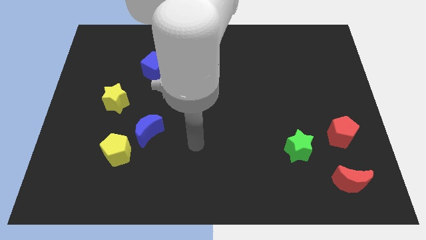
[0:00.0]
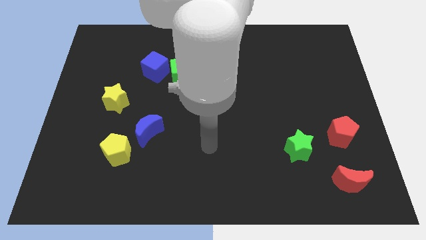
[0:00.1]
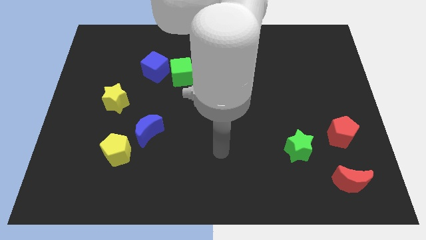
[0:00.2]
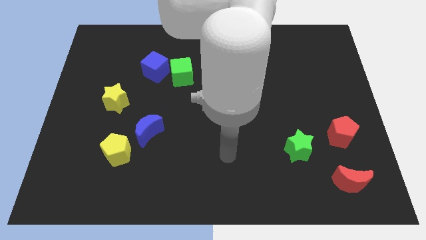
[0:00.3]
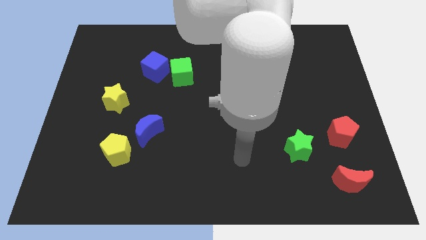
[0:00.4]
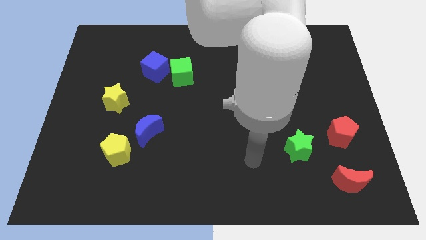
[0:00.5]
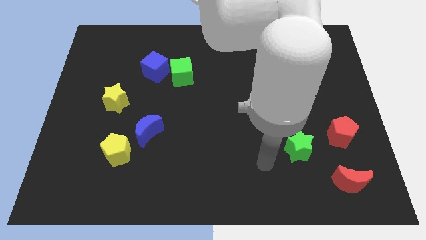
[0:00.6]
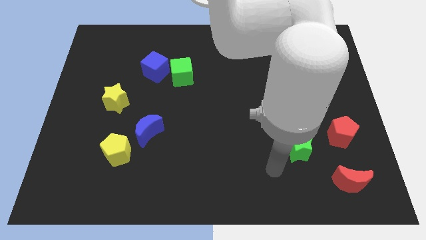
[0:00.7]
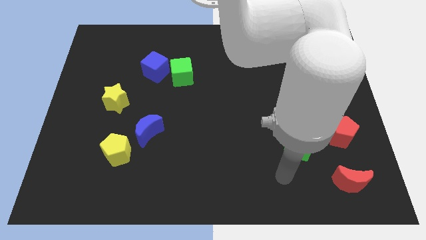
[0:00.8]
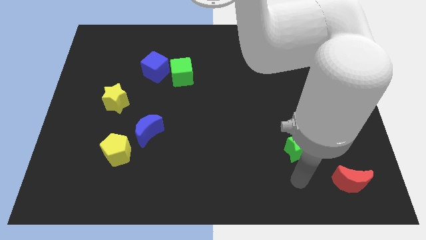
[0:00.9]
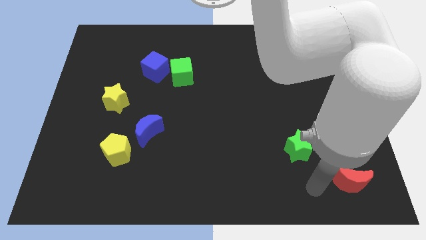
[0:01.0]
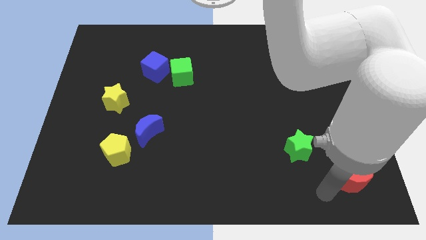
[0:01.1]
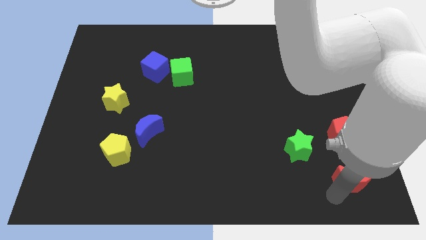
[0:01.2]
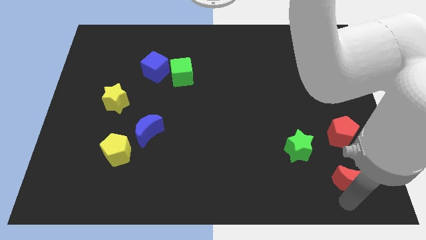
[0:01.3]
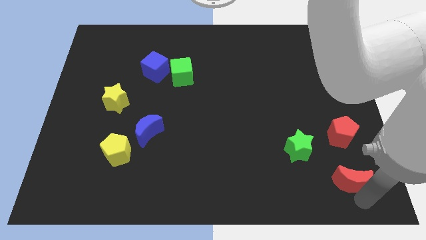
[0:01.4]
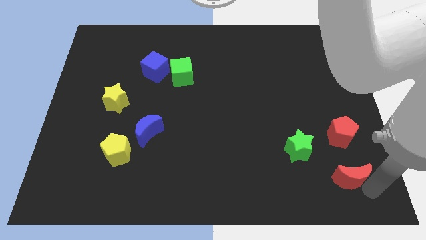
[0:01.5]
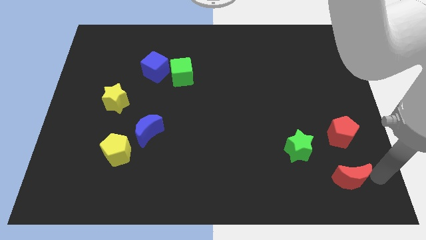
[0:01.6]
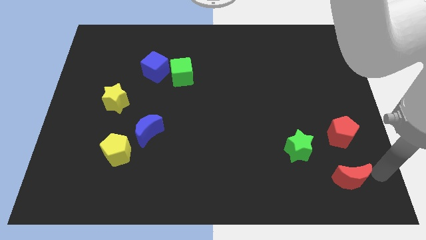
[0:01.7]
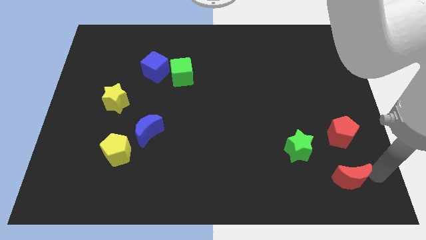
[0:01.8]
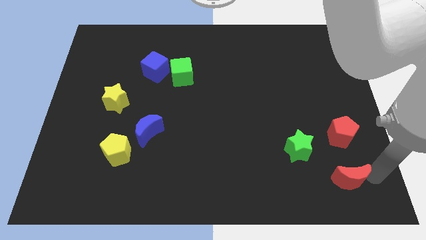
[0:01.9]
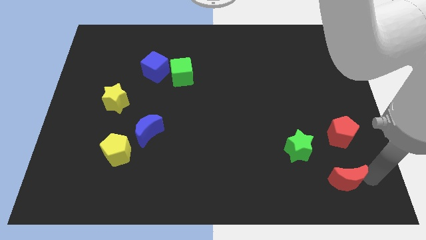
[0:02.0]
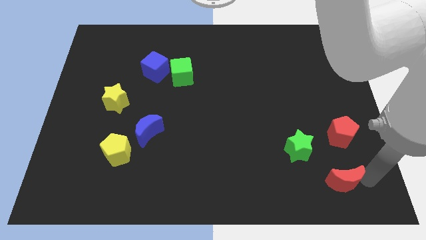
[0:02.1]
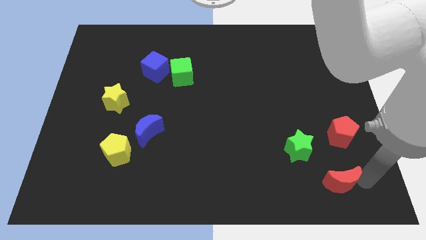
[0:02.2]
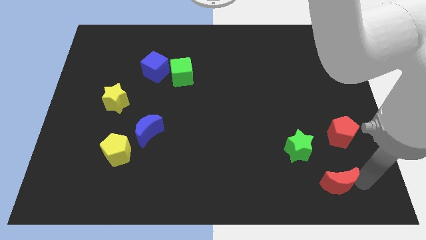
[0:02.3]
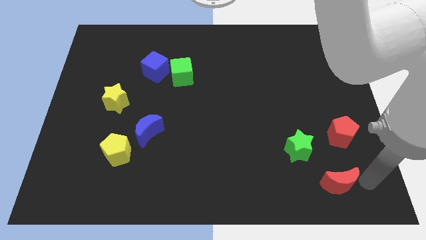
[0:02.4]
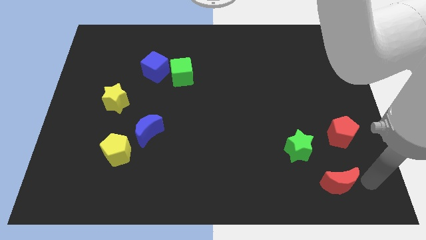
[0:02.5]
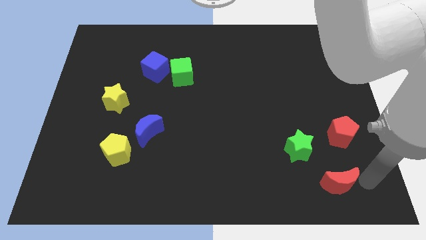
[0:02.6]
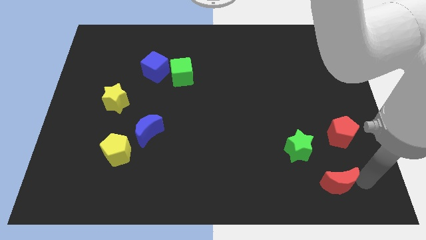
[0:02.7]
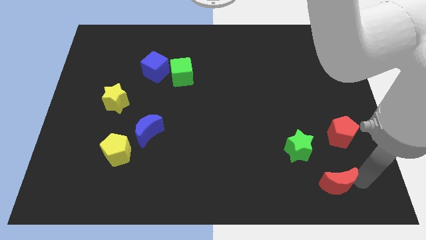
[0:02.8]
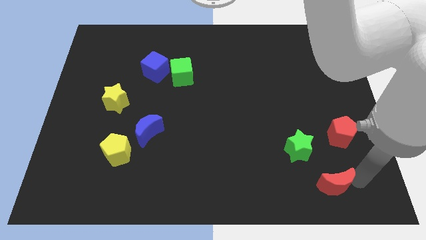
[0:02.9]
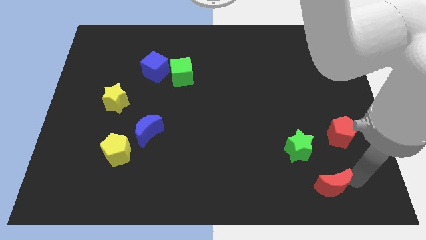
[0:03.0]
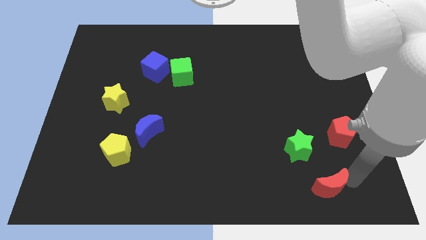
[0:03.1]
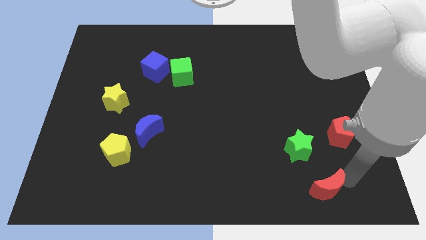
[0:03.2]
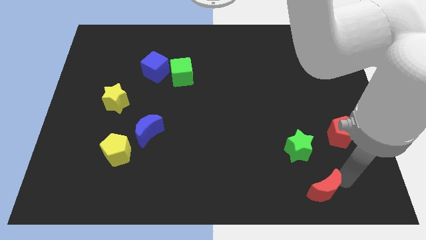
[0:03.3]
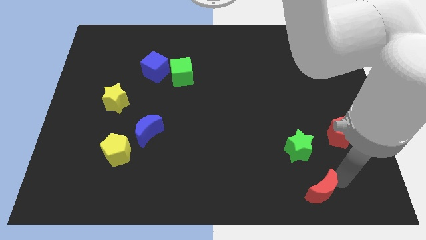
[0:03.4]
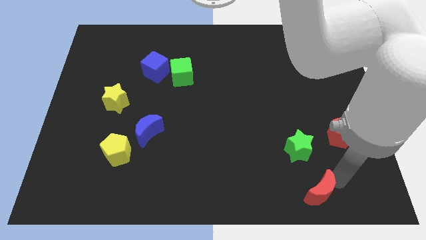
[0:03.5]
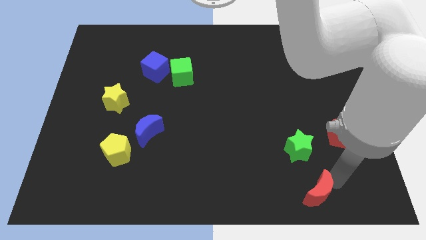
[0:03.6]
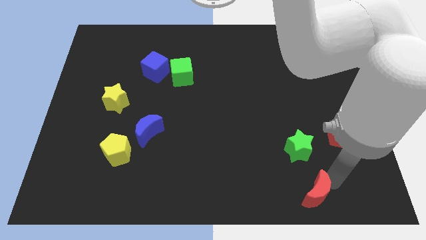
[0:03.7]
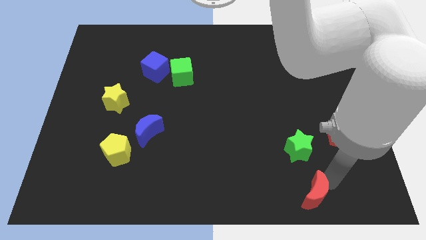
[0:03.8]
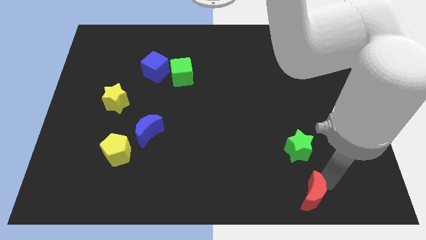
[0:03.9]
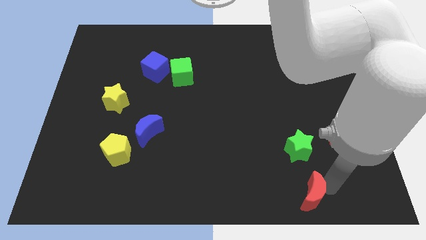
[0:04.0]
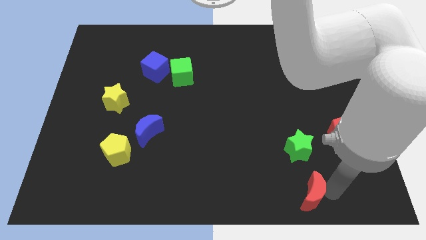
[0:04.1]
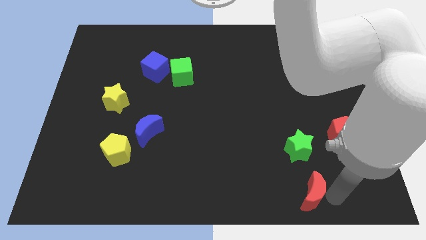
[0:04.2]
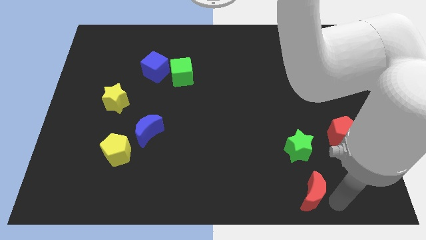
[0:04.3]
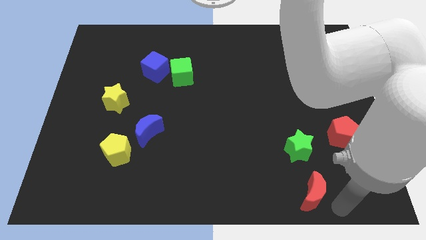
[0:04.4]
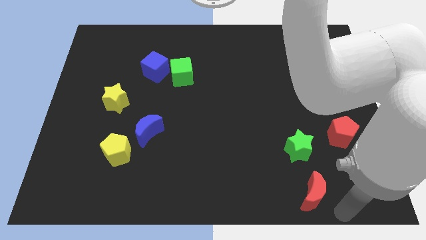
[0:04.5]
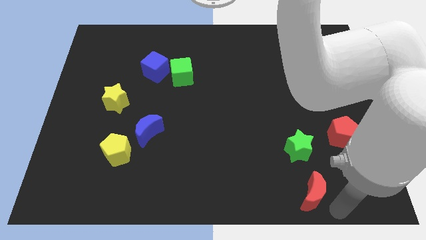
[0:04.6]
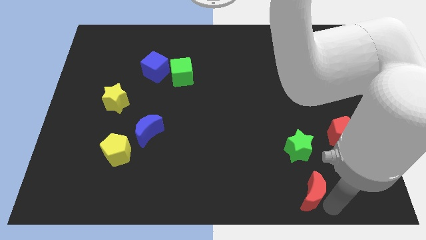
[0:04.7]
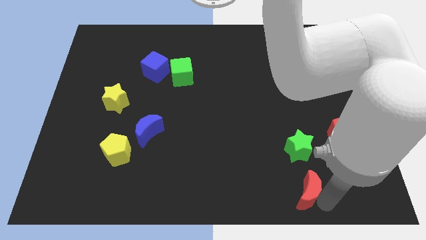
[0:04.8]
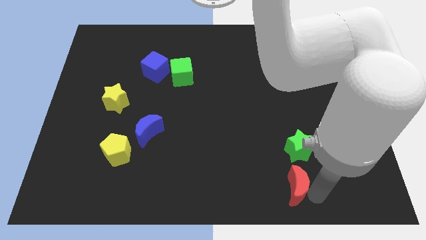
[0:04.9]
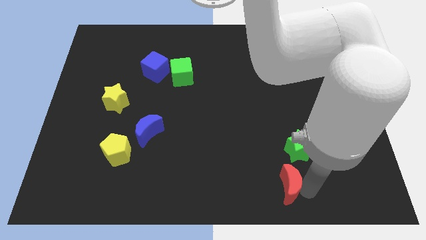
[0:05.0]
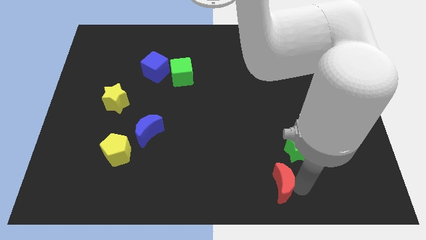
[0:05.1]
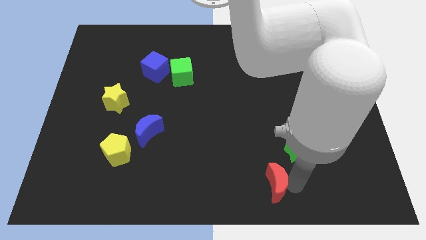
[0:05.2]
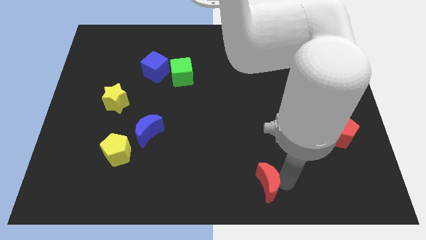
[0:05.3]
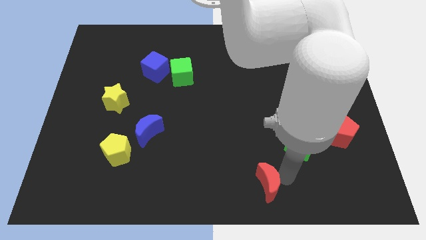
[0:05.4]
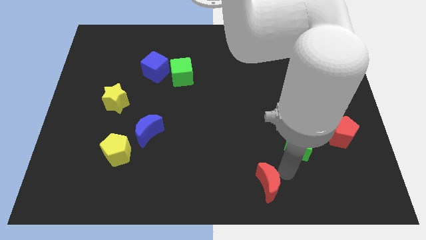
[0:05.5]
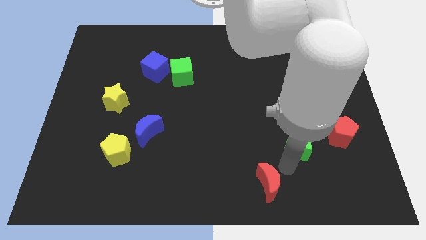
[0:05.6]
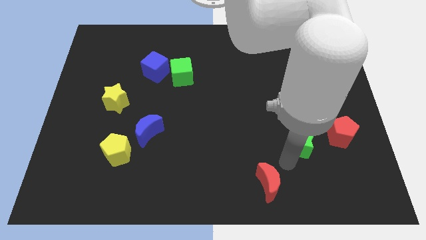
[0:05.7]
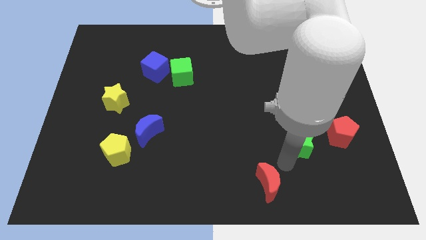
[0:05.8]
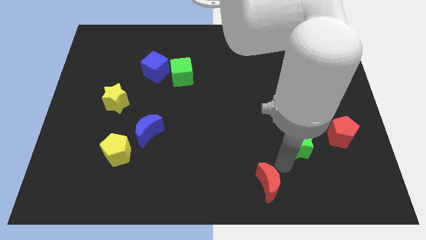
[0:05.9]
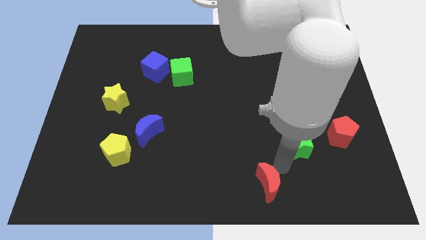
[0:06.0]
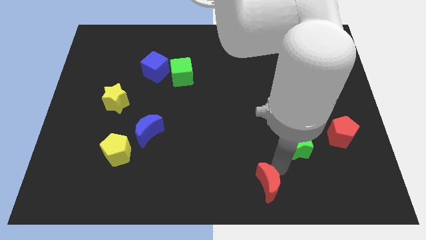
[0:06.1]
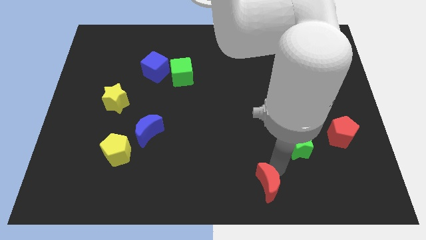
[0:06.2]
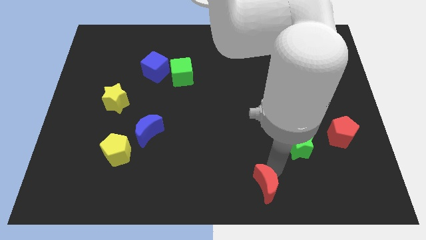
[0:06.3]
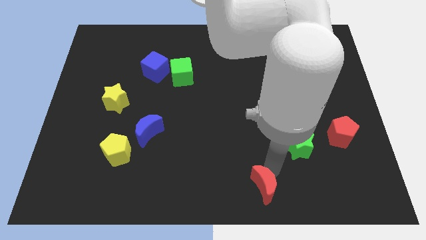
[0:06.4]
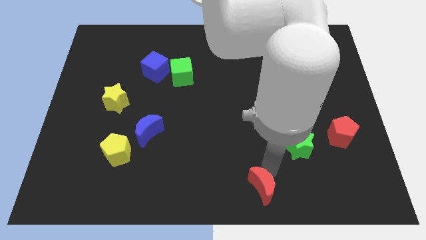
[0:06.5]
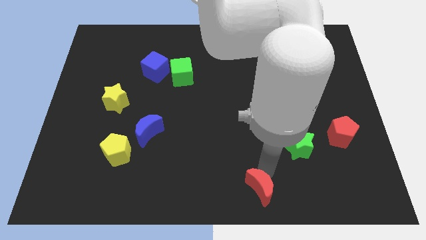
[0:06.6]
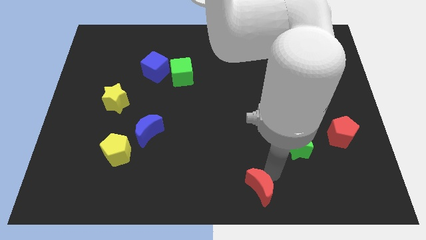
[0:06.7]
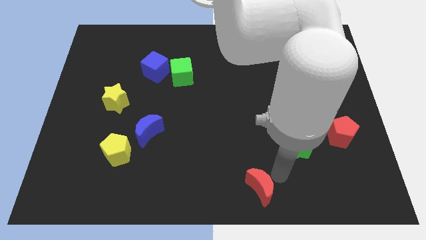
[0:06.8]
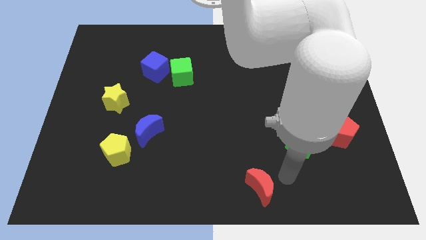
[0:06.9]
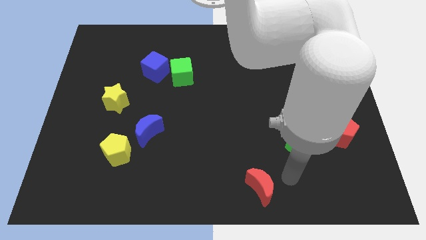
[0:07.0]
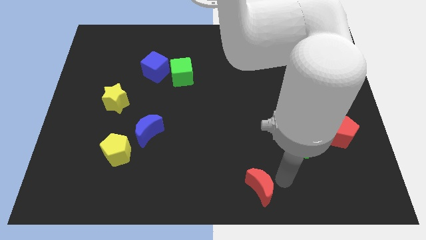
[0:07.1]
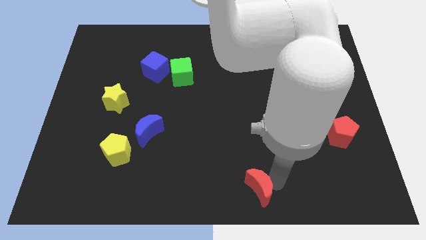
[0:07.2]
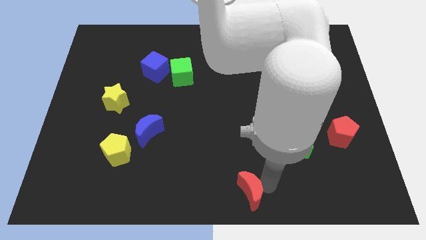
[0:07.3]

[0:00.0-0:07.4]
move the red moon left

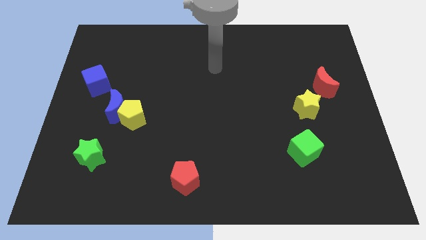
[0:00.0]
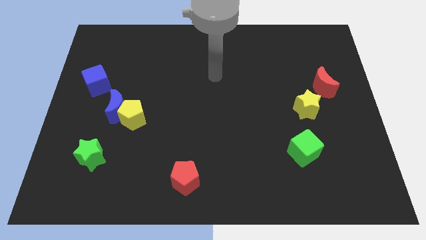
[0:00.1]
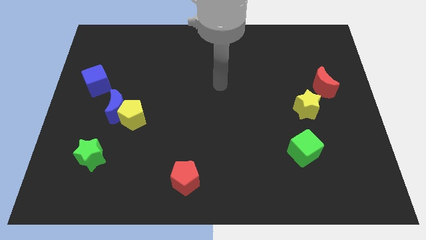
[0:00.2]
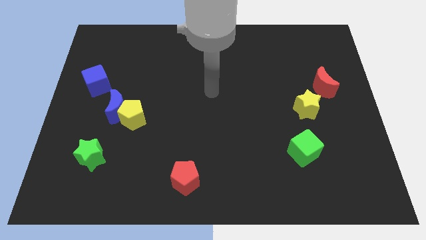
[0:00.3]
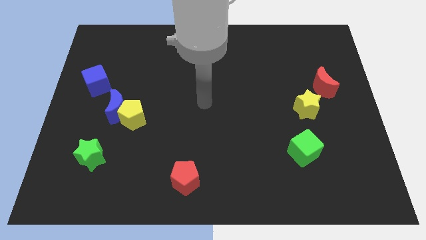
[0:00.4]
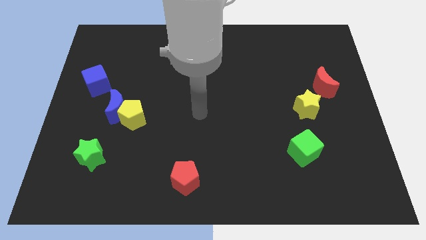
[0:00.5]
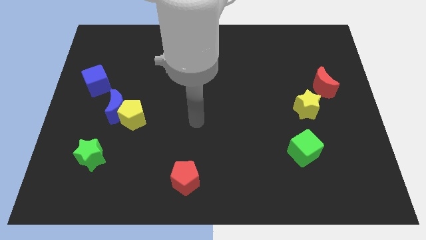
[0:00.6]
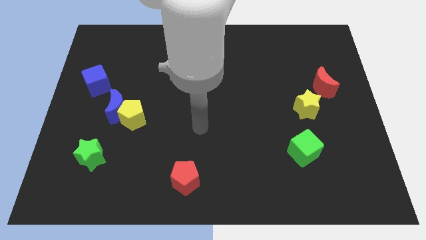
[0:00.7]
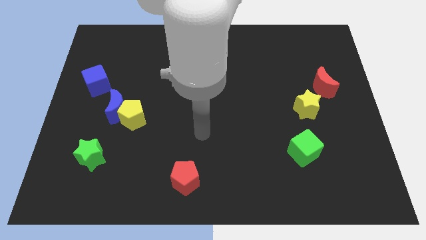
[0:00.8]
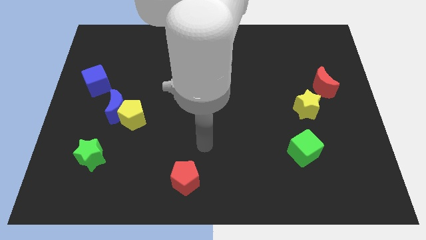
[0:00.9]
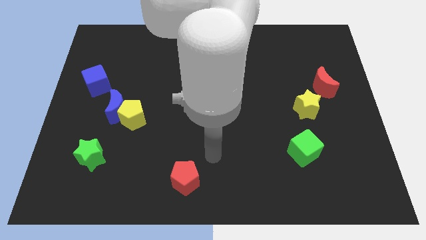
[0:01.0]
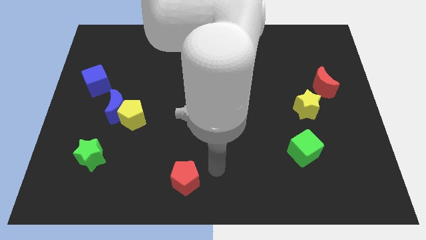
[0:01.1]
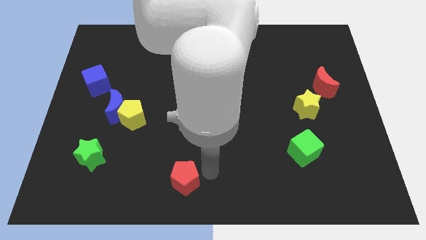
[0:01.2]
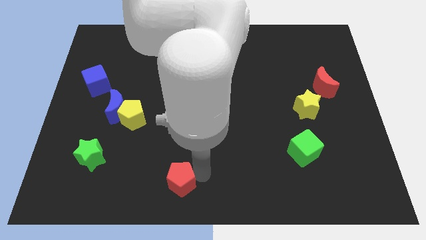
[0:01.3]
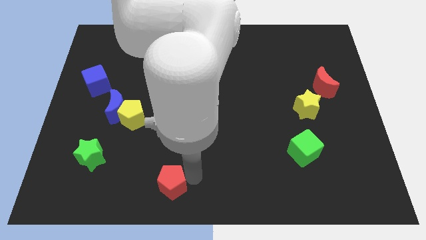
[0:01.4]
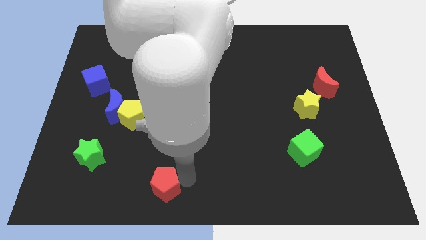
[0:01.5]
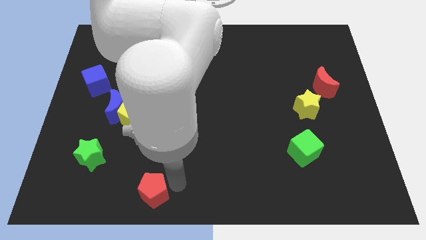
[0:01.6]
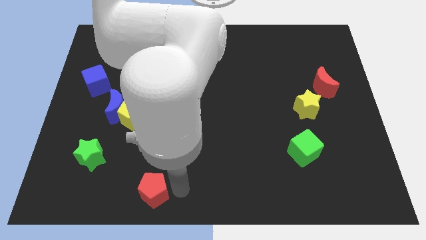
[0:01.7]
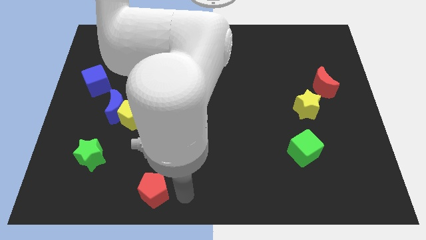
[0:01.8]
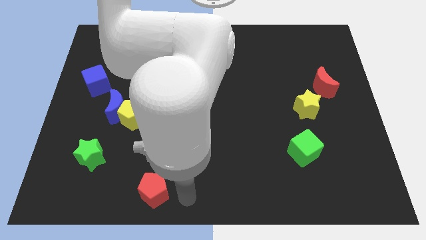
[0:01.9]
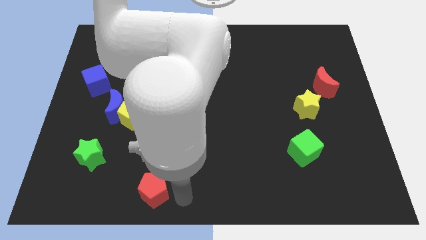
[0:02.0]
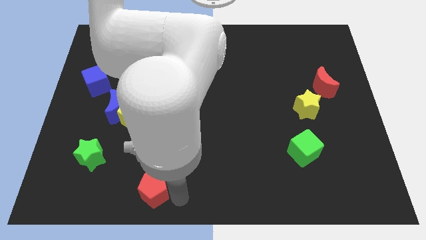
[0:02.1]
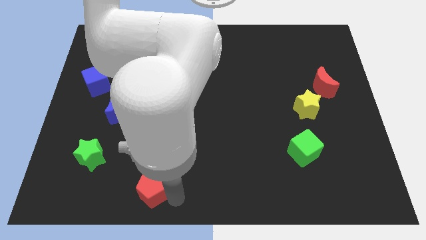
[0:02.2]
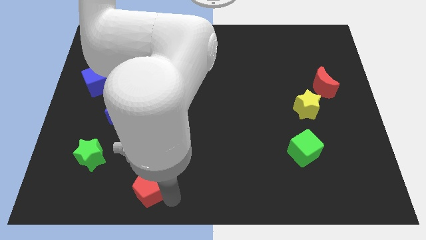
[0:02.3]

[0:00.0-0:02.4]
slightly move the red pentagon to the left
